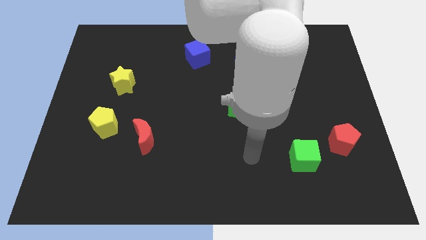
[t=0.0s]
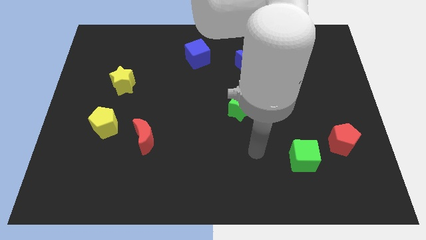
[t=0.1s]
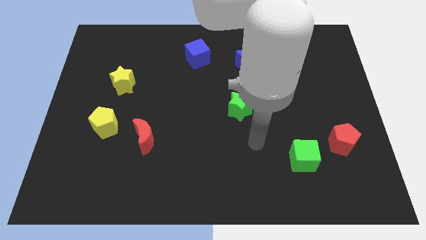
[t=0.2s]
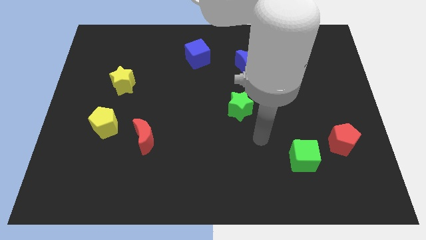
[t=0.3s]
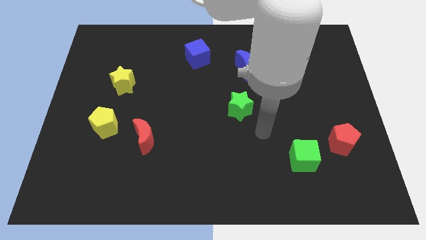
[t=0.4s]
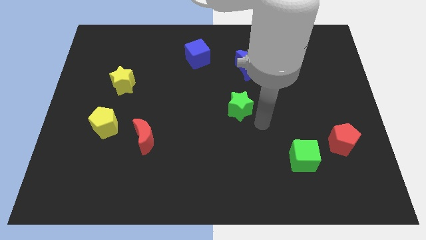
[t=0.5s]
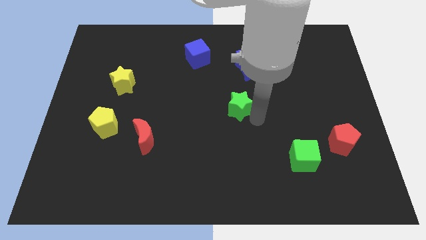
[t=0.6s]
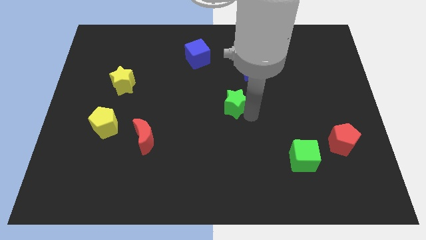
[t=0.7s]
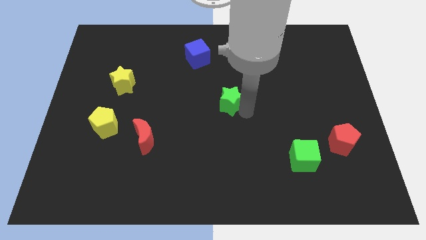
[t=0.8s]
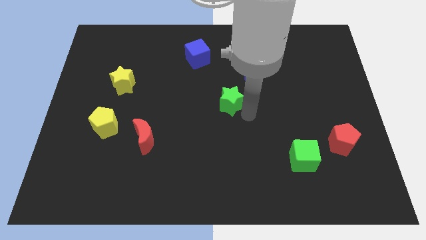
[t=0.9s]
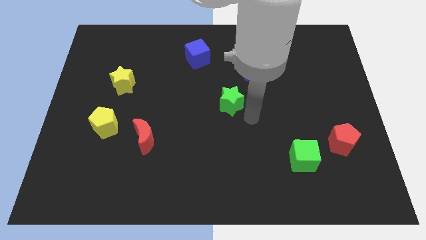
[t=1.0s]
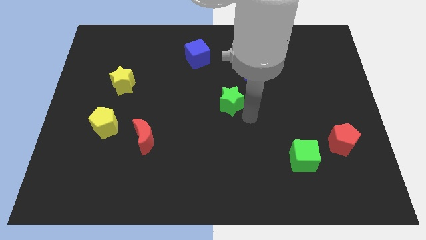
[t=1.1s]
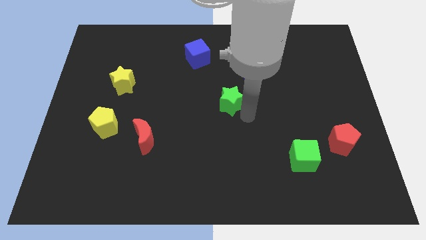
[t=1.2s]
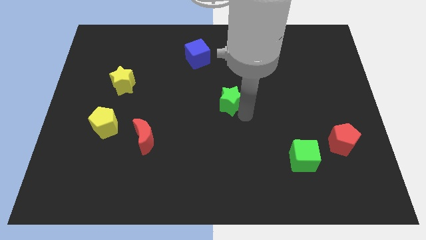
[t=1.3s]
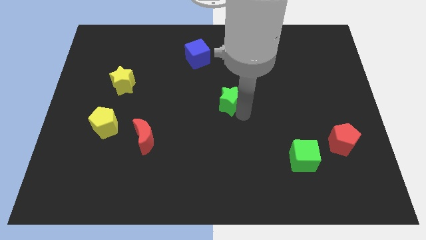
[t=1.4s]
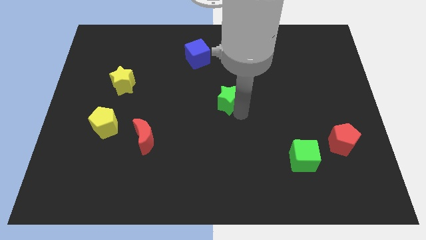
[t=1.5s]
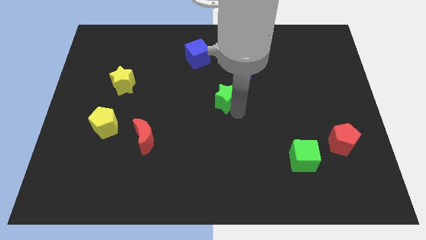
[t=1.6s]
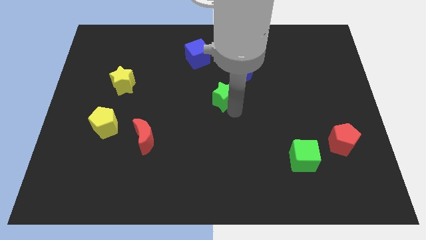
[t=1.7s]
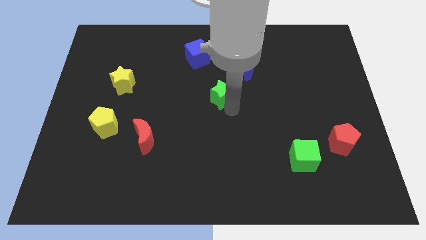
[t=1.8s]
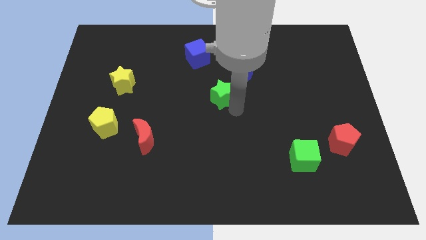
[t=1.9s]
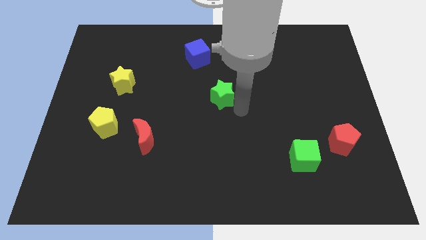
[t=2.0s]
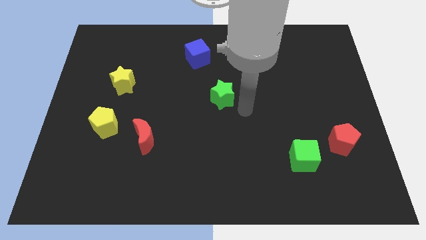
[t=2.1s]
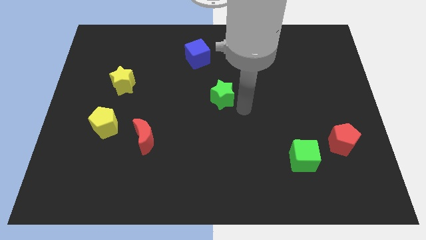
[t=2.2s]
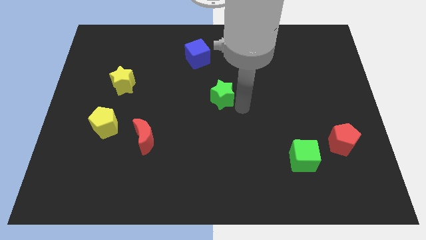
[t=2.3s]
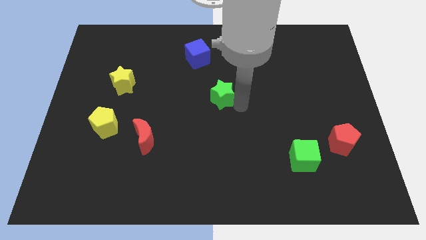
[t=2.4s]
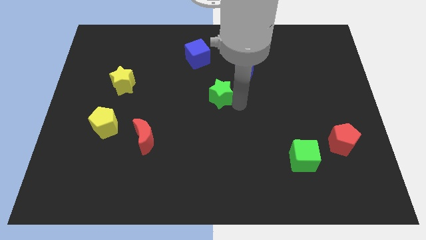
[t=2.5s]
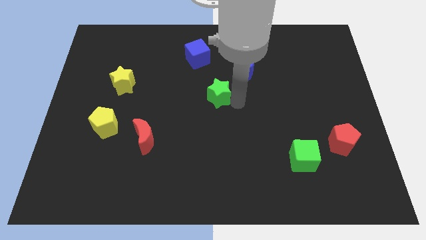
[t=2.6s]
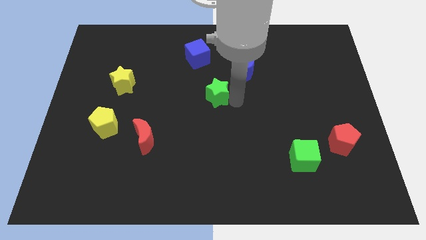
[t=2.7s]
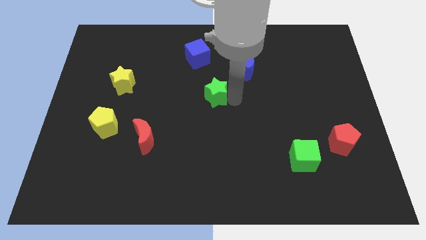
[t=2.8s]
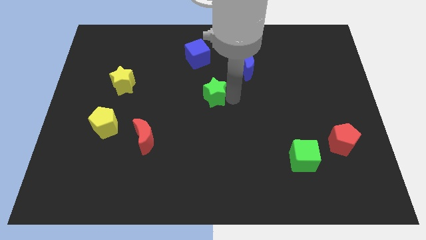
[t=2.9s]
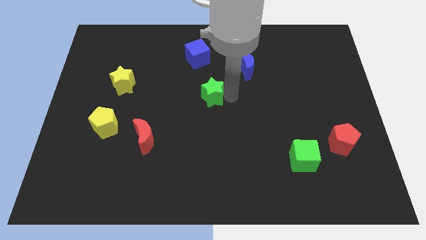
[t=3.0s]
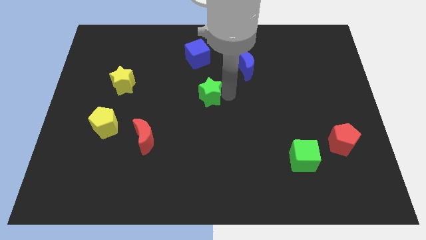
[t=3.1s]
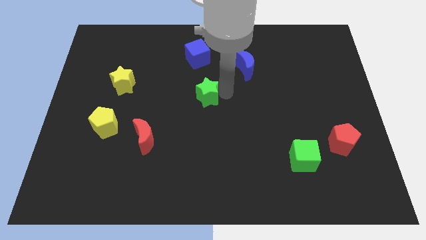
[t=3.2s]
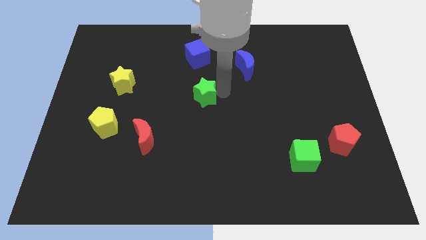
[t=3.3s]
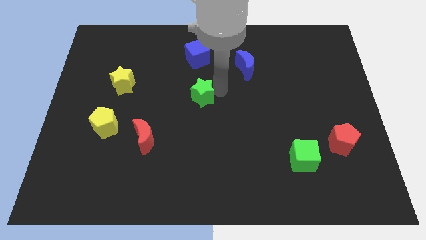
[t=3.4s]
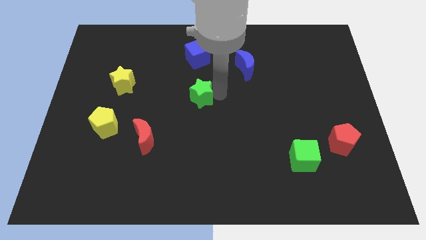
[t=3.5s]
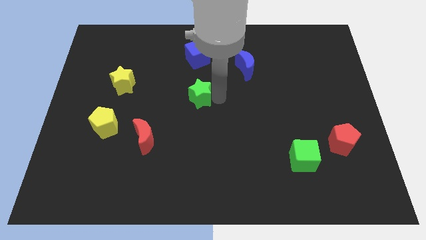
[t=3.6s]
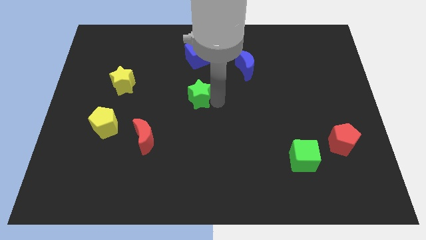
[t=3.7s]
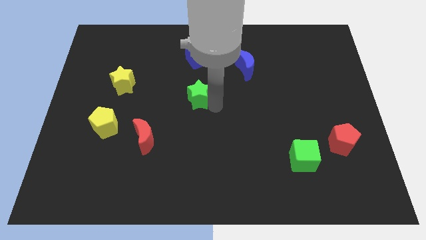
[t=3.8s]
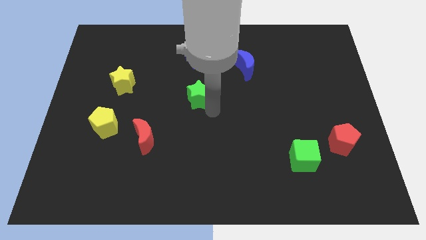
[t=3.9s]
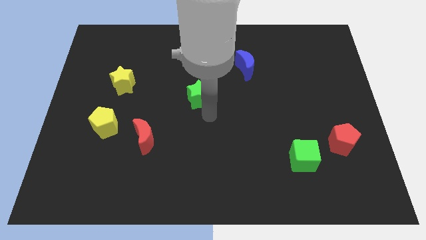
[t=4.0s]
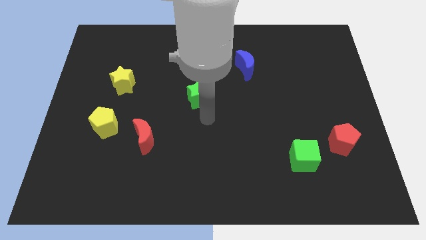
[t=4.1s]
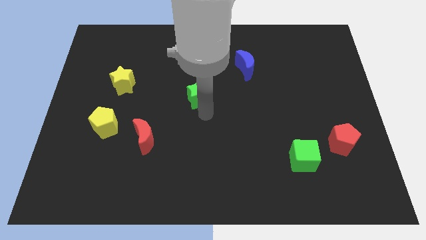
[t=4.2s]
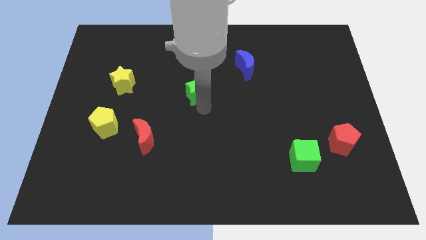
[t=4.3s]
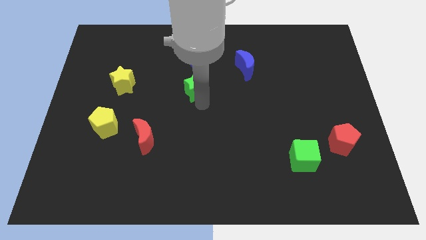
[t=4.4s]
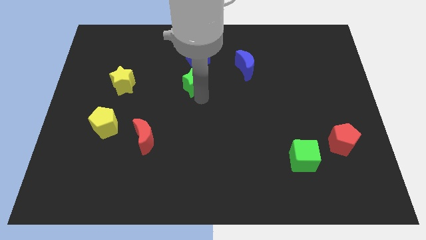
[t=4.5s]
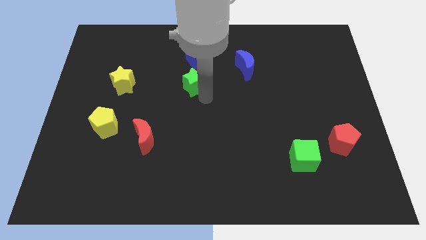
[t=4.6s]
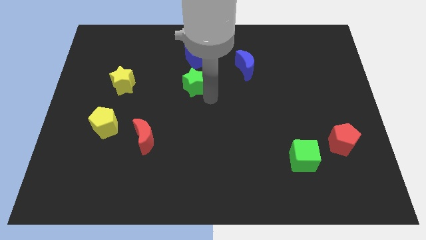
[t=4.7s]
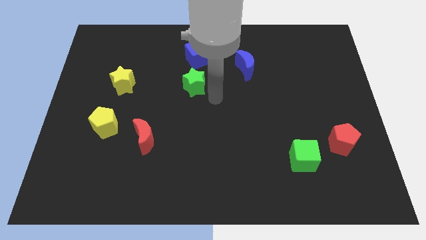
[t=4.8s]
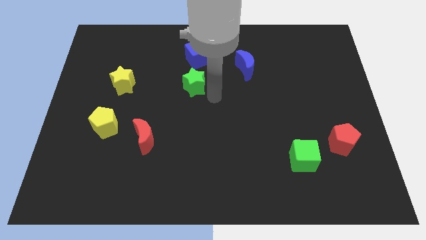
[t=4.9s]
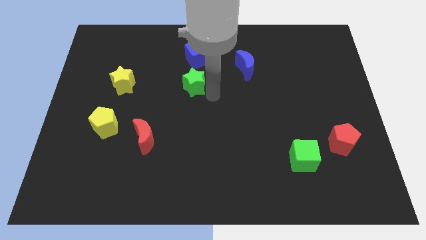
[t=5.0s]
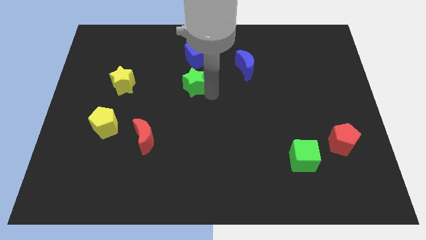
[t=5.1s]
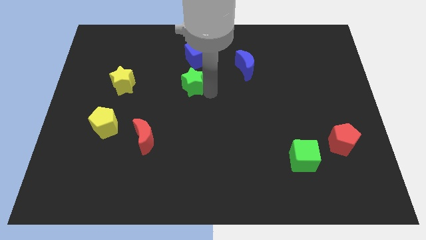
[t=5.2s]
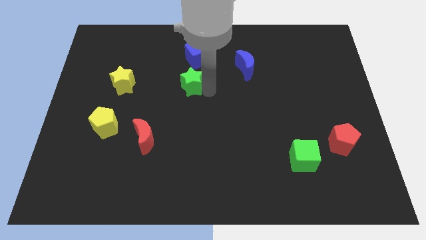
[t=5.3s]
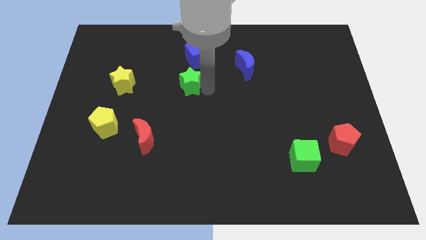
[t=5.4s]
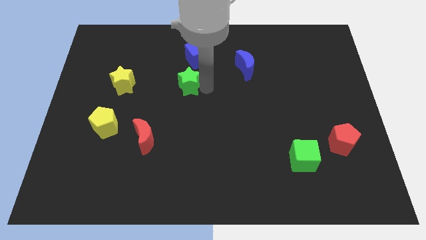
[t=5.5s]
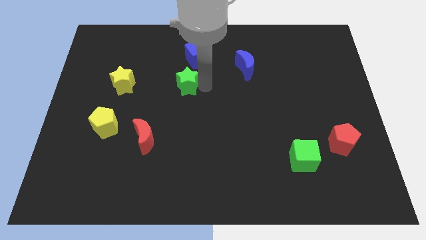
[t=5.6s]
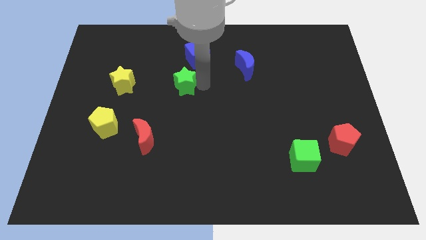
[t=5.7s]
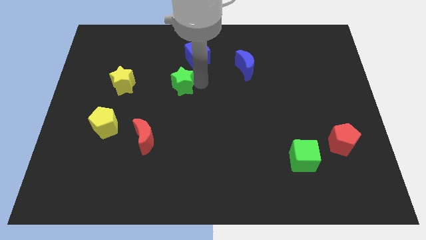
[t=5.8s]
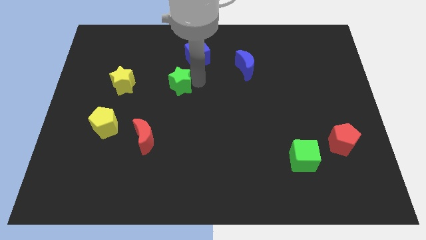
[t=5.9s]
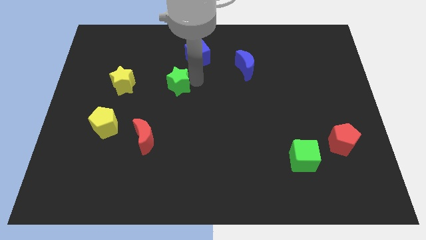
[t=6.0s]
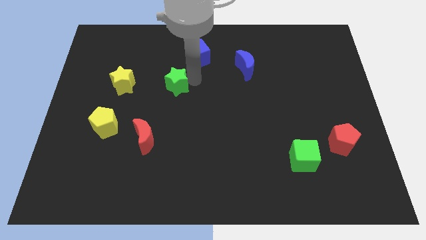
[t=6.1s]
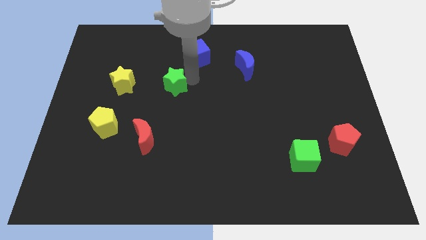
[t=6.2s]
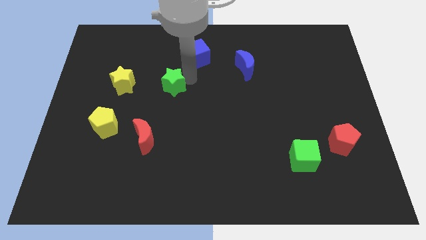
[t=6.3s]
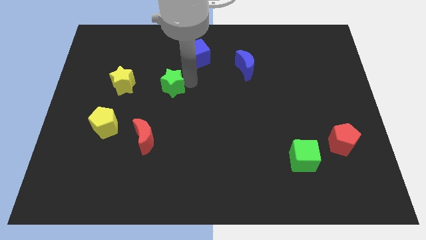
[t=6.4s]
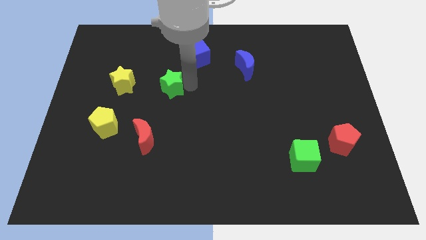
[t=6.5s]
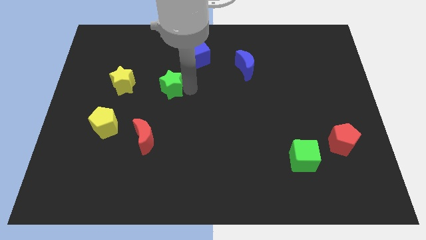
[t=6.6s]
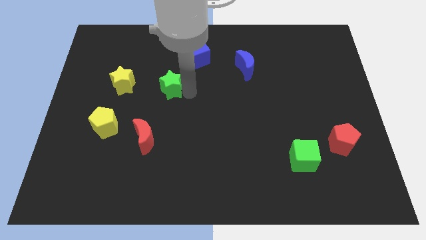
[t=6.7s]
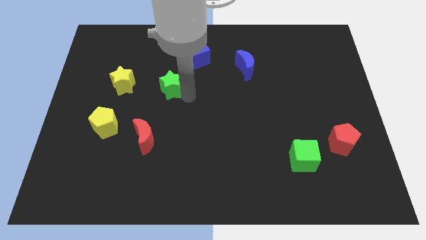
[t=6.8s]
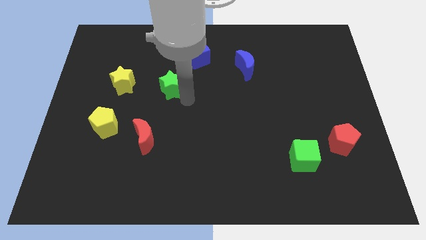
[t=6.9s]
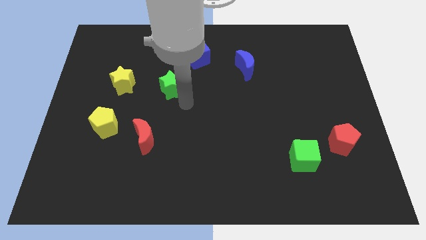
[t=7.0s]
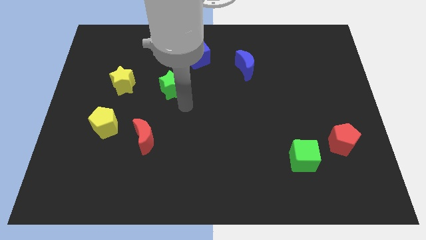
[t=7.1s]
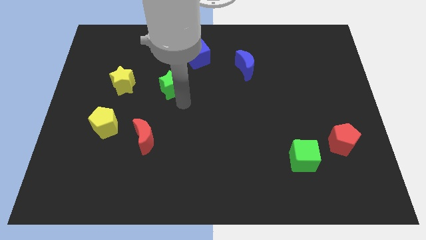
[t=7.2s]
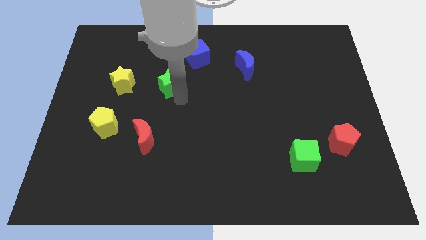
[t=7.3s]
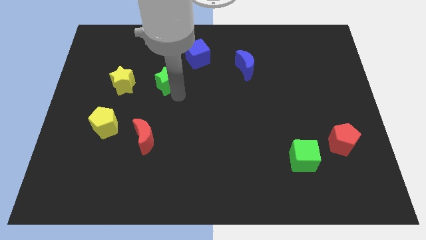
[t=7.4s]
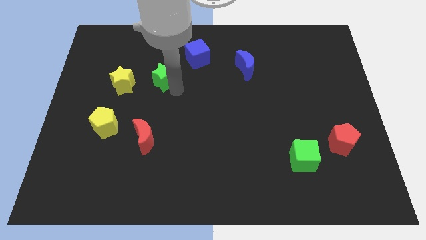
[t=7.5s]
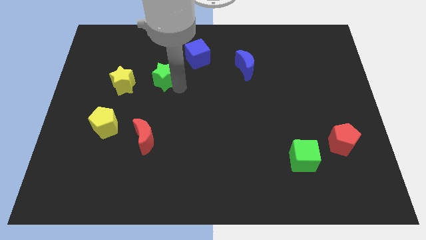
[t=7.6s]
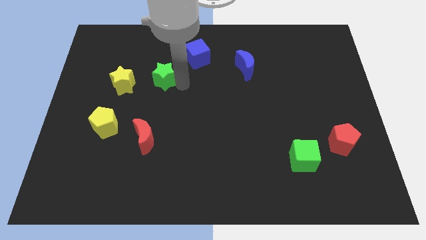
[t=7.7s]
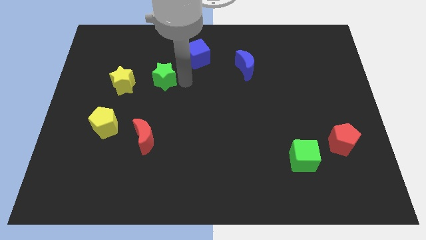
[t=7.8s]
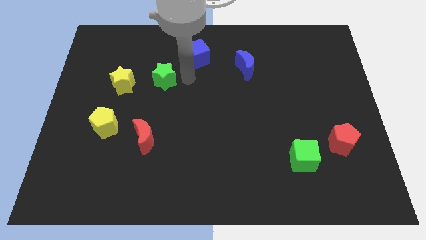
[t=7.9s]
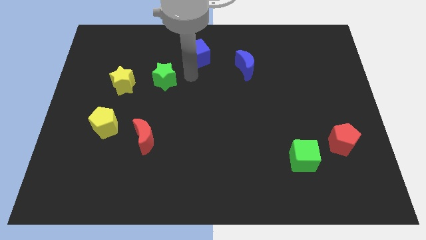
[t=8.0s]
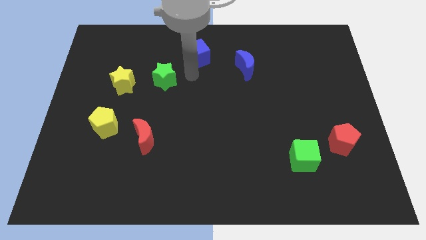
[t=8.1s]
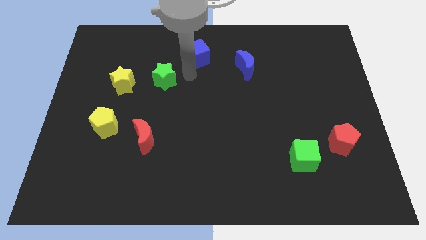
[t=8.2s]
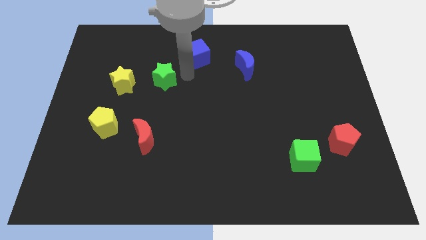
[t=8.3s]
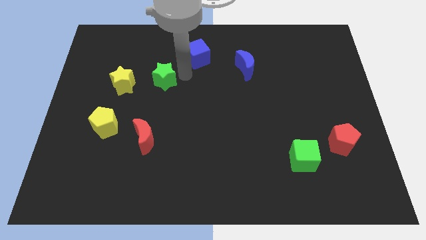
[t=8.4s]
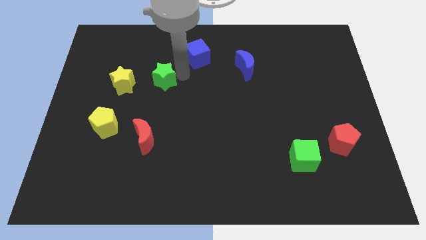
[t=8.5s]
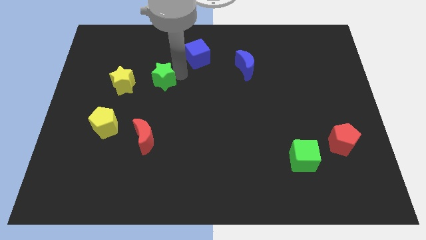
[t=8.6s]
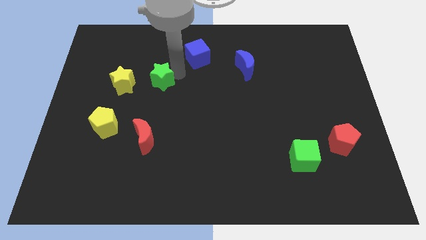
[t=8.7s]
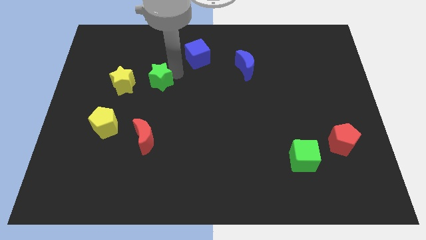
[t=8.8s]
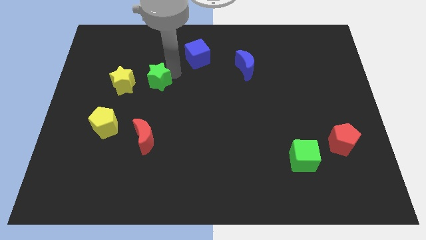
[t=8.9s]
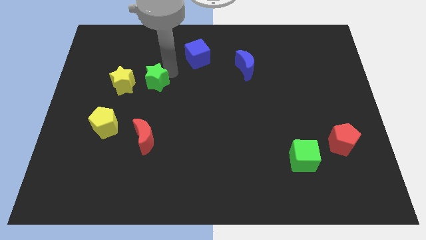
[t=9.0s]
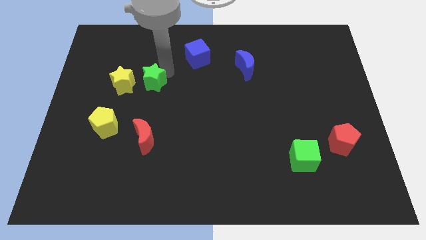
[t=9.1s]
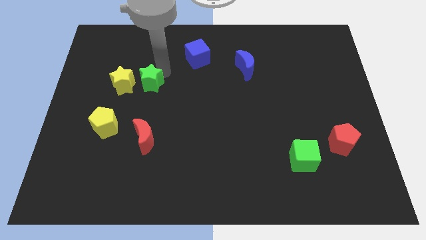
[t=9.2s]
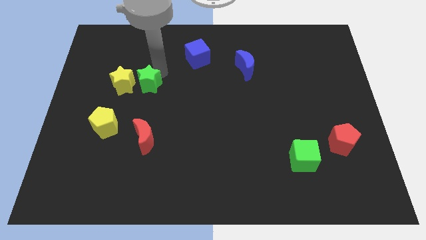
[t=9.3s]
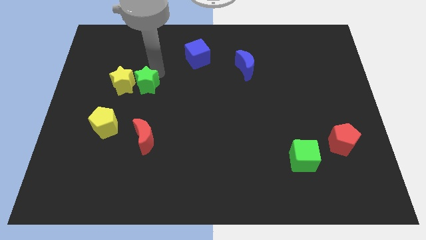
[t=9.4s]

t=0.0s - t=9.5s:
move the green star towards the yellow star
